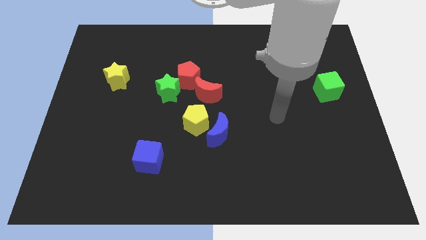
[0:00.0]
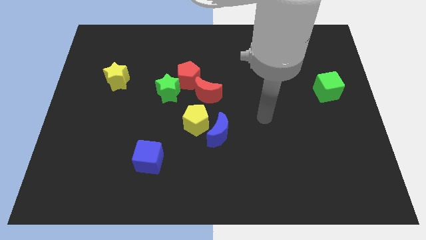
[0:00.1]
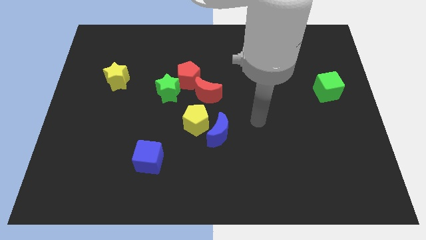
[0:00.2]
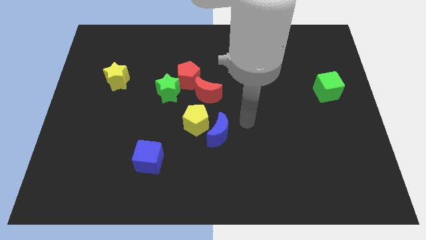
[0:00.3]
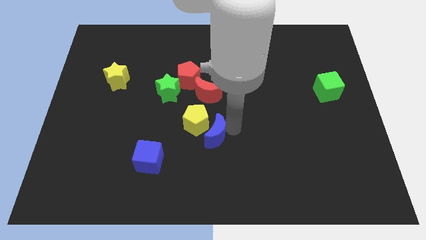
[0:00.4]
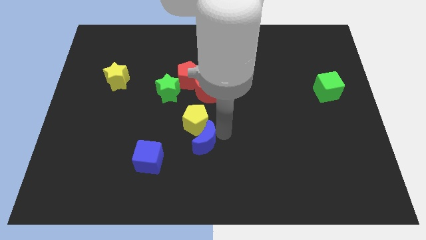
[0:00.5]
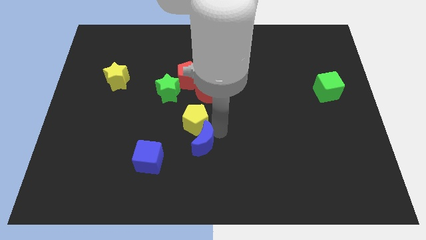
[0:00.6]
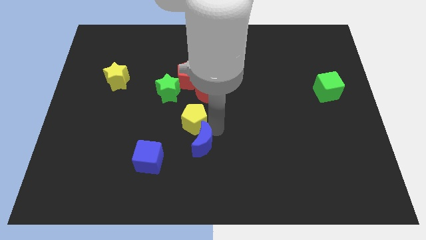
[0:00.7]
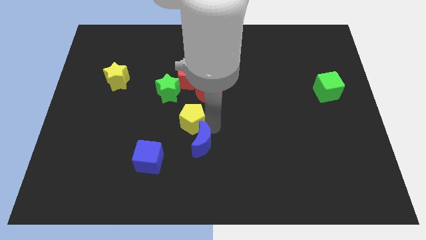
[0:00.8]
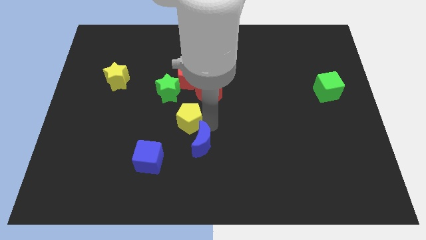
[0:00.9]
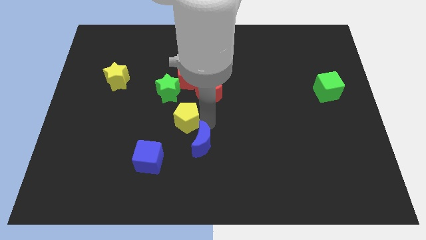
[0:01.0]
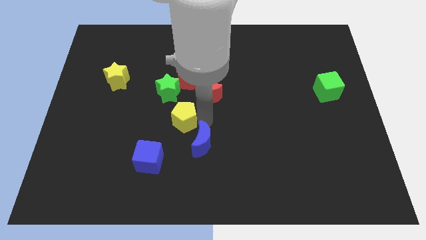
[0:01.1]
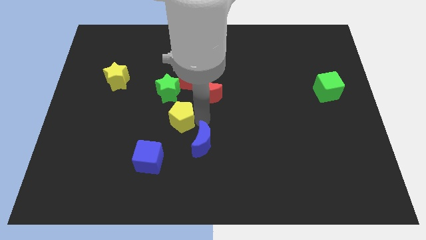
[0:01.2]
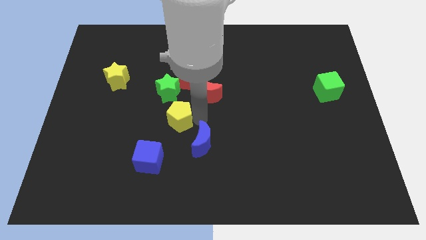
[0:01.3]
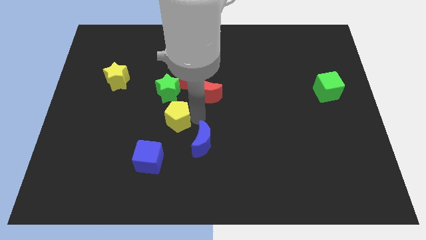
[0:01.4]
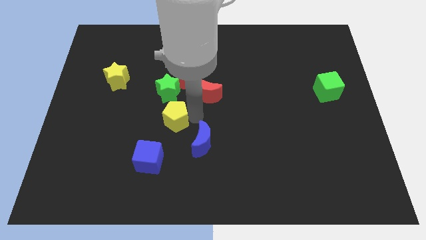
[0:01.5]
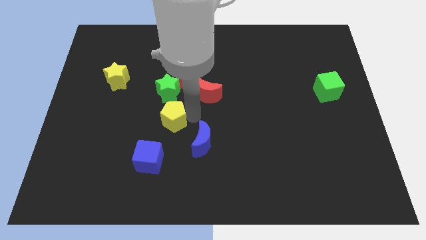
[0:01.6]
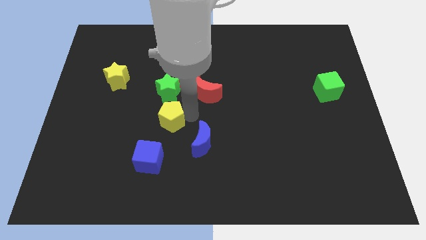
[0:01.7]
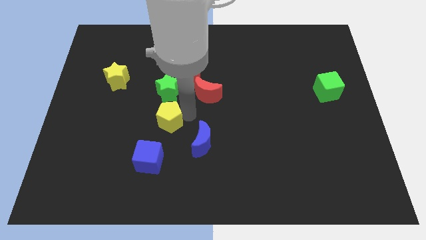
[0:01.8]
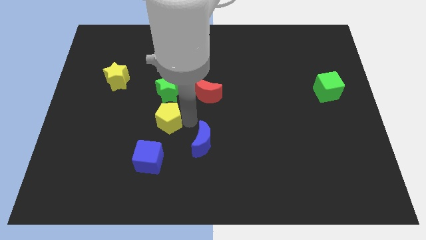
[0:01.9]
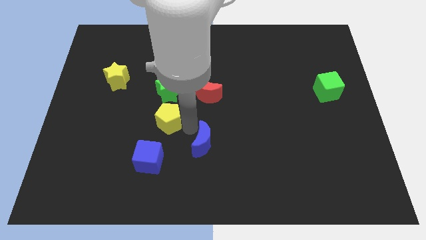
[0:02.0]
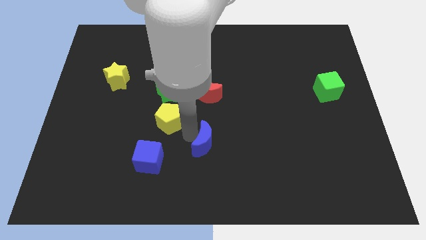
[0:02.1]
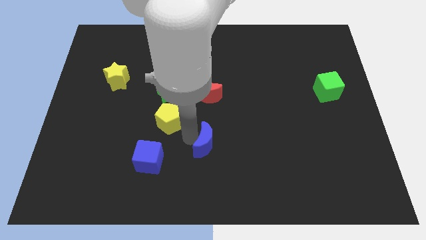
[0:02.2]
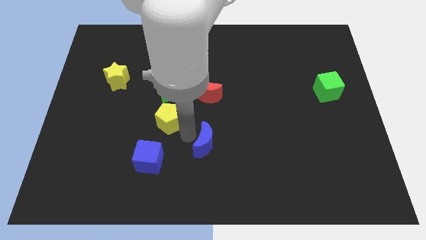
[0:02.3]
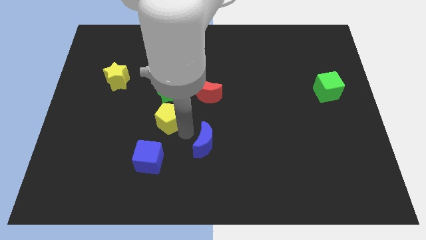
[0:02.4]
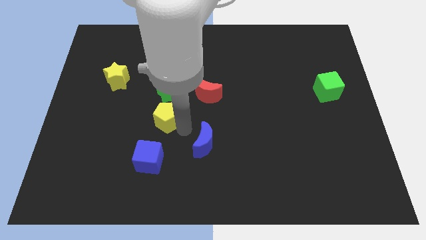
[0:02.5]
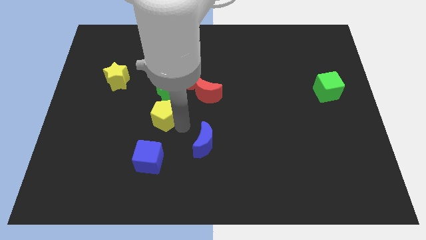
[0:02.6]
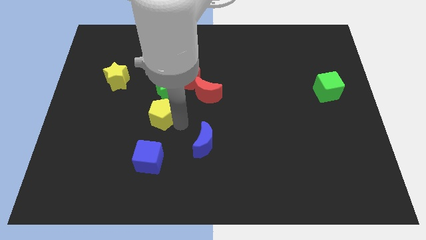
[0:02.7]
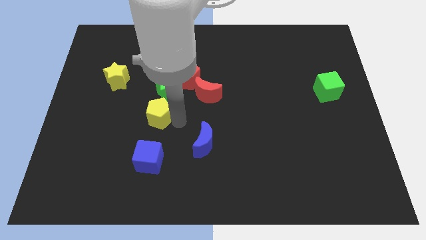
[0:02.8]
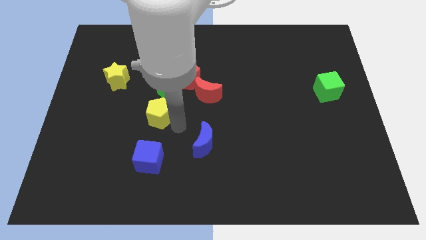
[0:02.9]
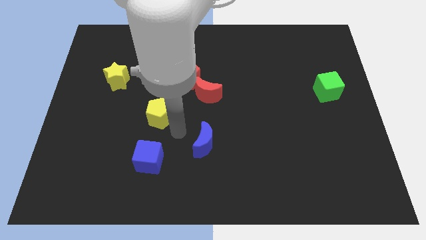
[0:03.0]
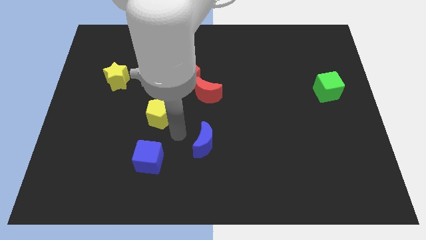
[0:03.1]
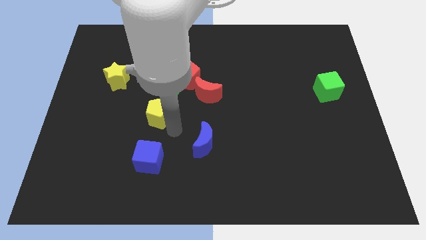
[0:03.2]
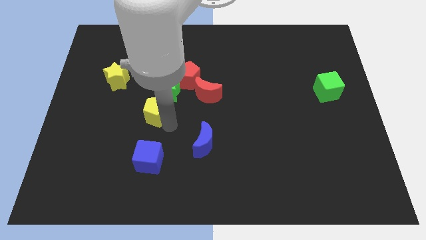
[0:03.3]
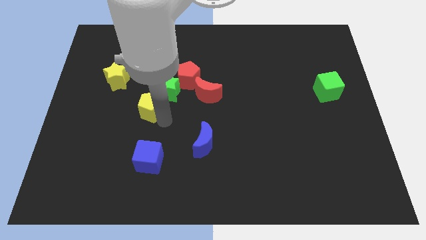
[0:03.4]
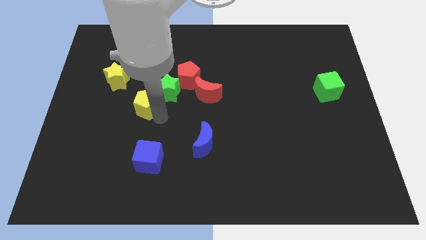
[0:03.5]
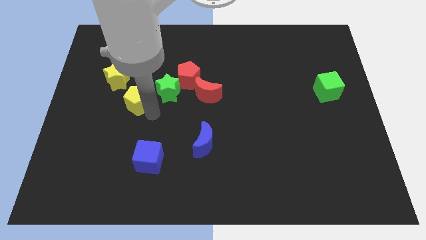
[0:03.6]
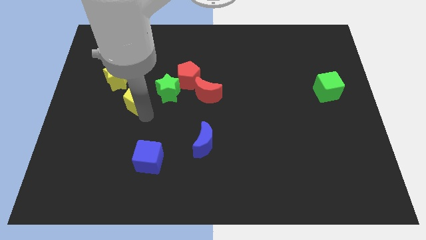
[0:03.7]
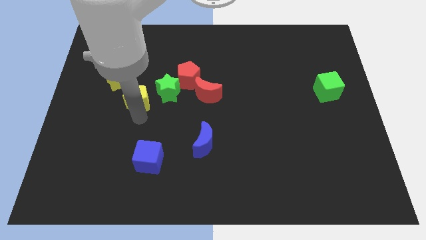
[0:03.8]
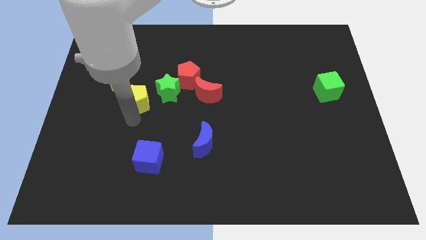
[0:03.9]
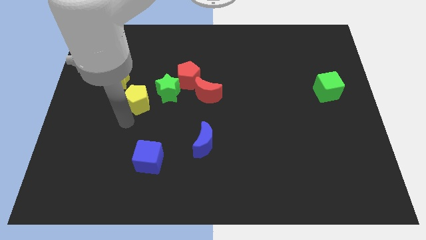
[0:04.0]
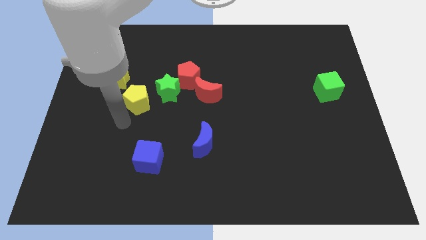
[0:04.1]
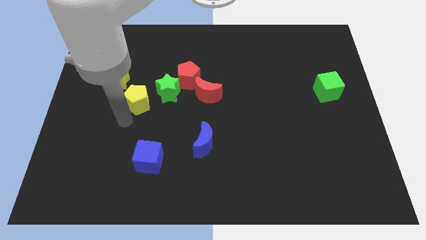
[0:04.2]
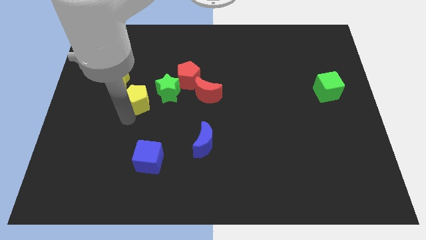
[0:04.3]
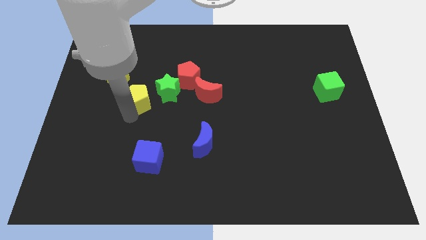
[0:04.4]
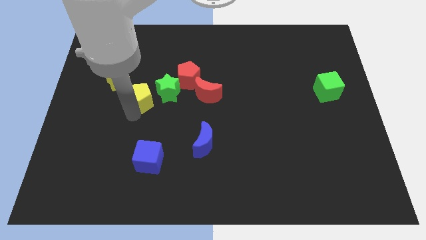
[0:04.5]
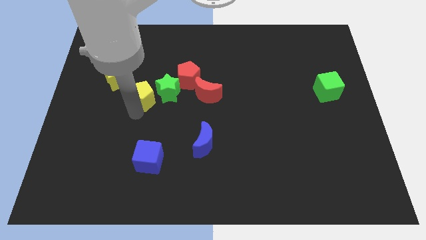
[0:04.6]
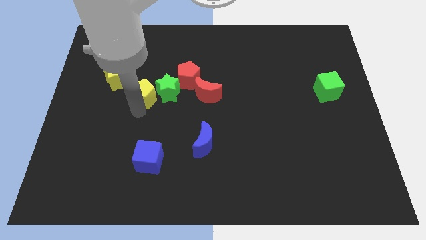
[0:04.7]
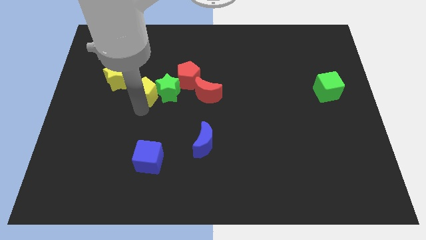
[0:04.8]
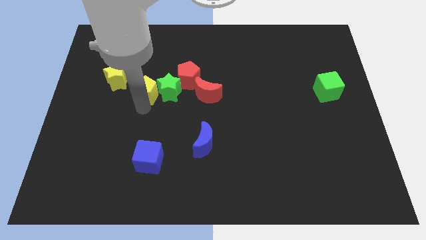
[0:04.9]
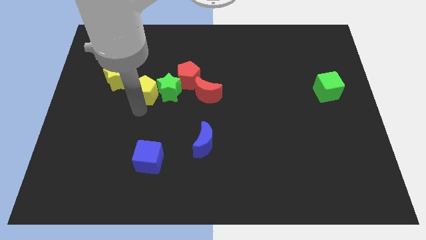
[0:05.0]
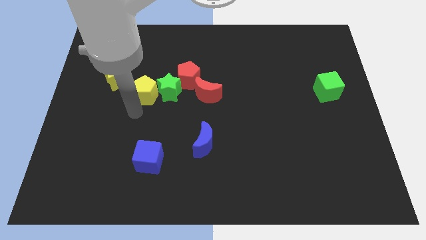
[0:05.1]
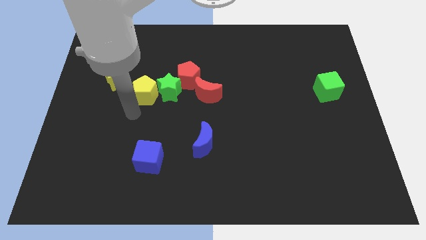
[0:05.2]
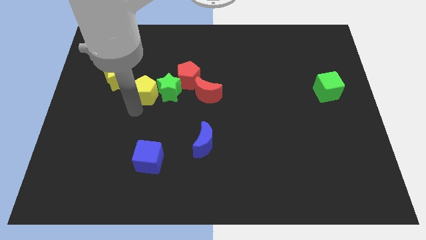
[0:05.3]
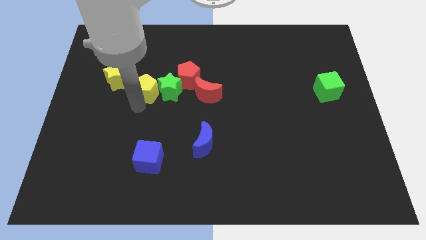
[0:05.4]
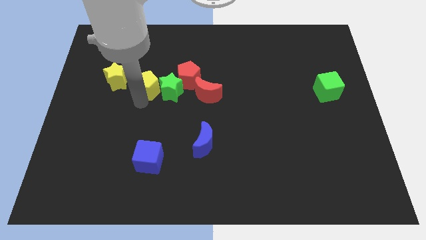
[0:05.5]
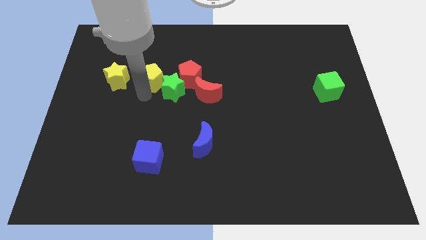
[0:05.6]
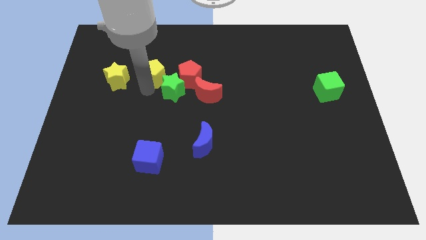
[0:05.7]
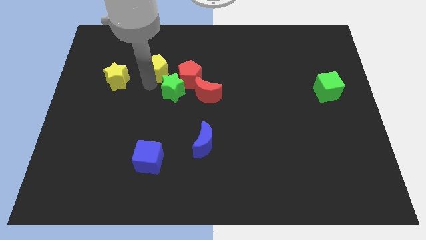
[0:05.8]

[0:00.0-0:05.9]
put the yellow pentagon diagonally up and to the left of the red pentagon

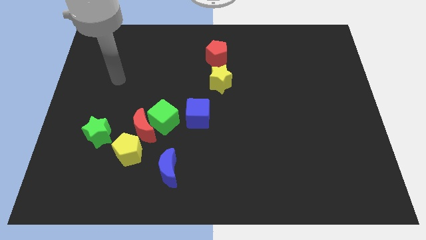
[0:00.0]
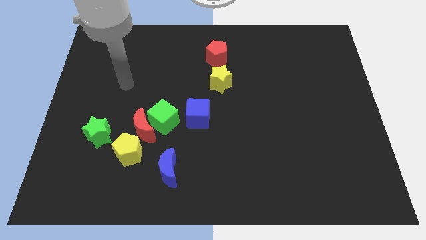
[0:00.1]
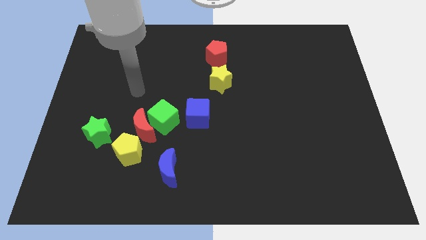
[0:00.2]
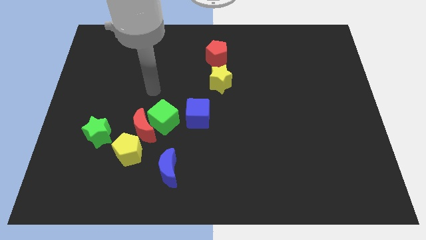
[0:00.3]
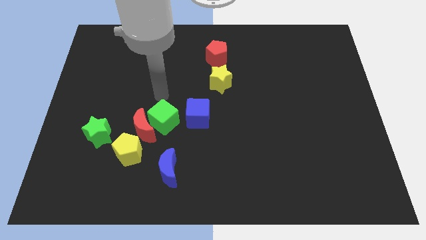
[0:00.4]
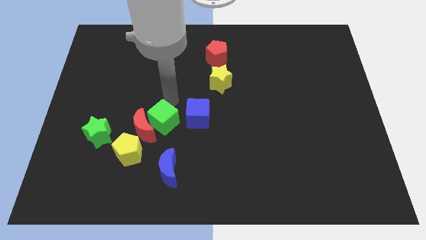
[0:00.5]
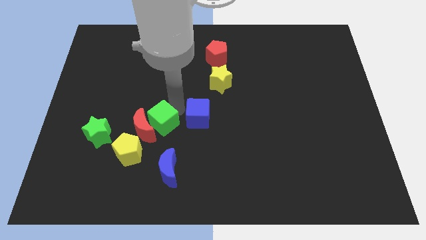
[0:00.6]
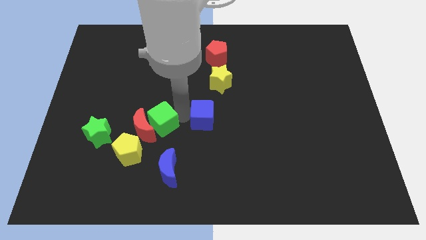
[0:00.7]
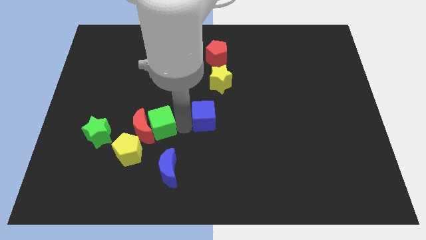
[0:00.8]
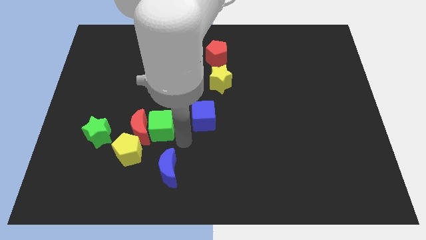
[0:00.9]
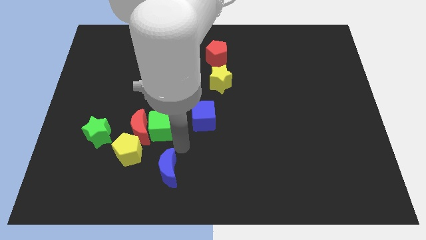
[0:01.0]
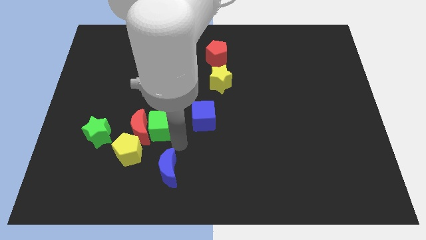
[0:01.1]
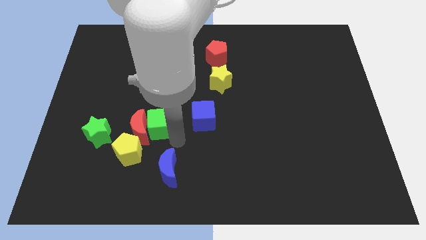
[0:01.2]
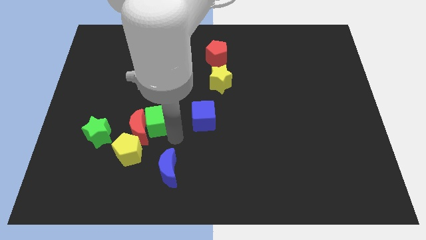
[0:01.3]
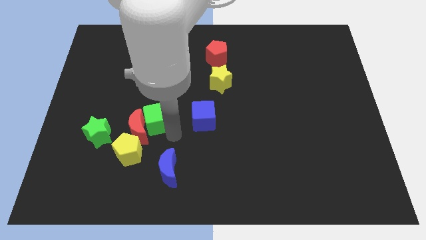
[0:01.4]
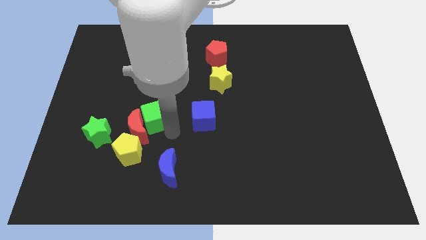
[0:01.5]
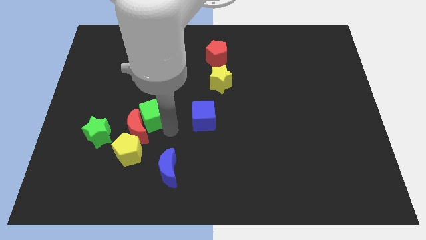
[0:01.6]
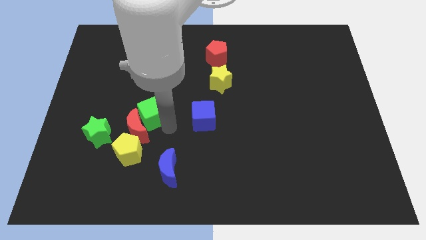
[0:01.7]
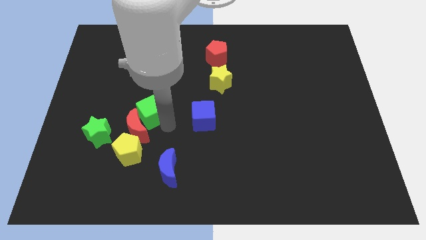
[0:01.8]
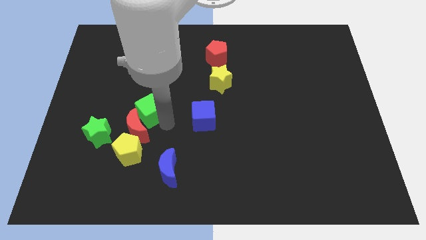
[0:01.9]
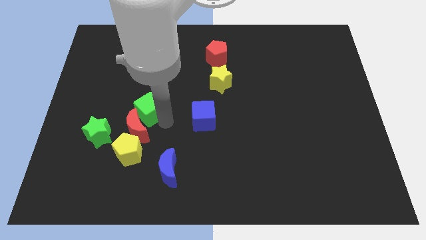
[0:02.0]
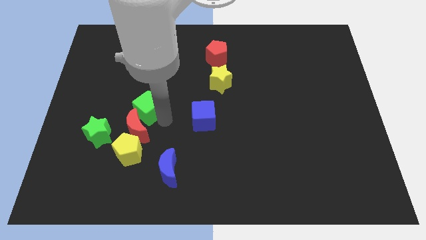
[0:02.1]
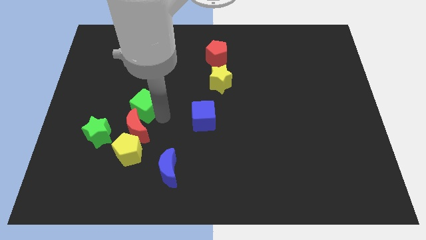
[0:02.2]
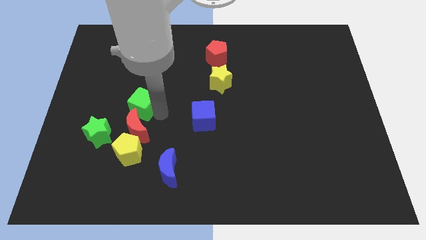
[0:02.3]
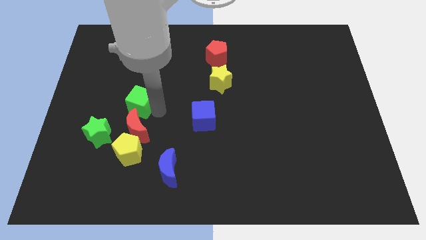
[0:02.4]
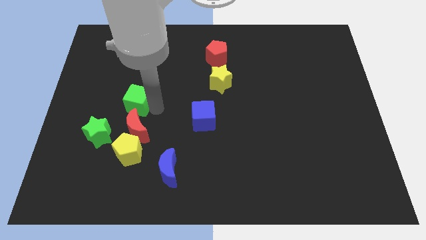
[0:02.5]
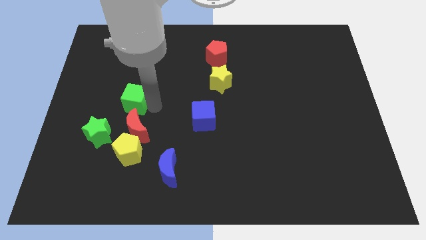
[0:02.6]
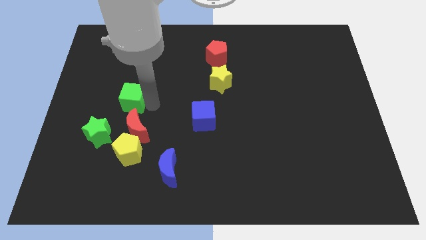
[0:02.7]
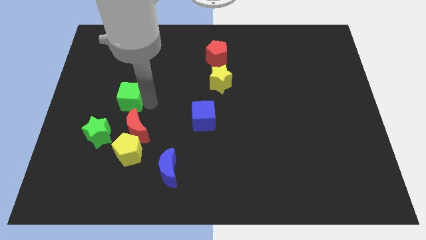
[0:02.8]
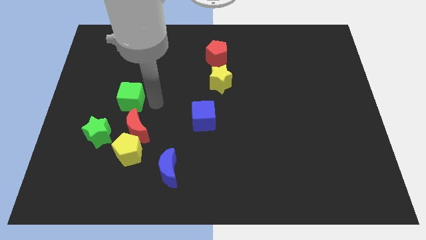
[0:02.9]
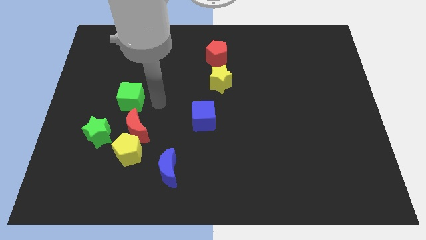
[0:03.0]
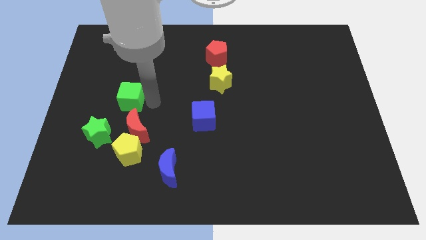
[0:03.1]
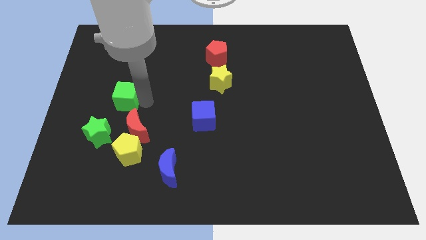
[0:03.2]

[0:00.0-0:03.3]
slide the green cube to the top side of the green star
